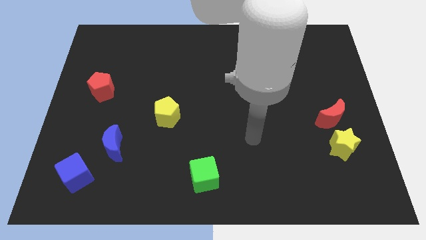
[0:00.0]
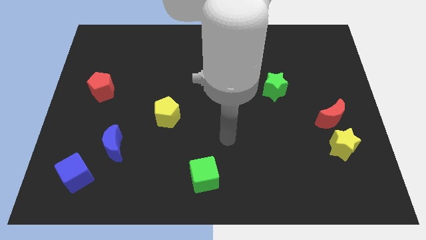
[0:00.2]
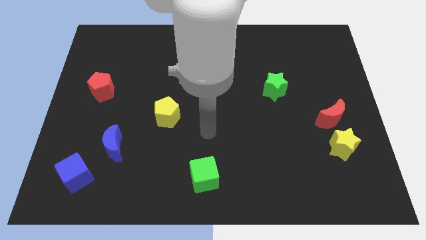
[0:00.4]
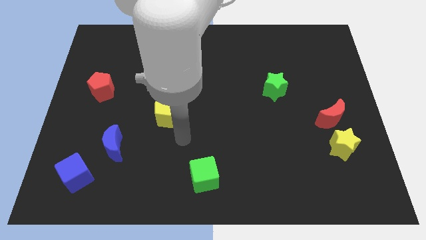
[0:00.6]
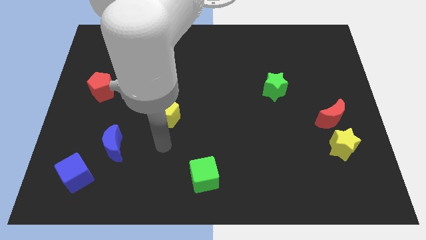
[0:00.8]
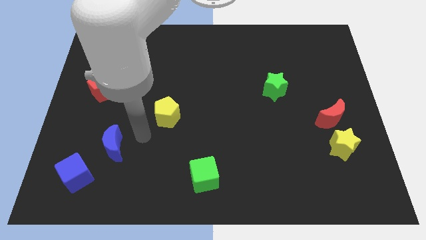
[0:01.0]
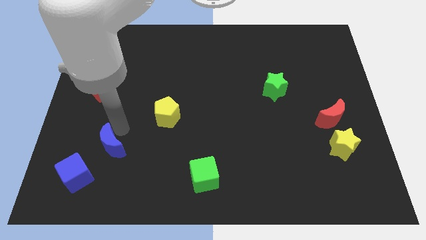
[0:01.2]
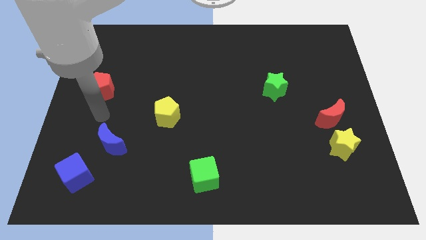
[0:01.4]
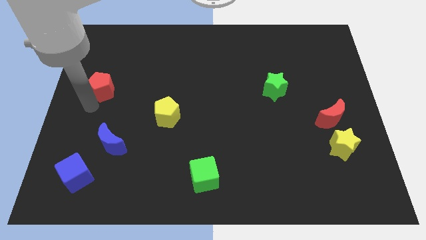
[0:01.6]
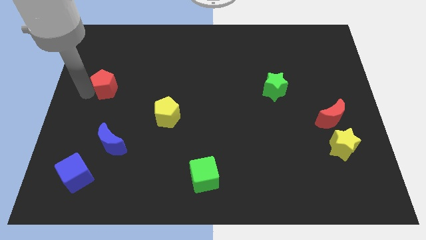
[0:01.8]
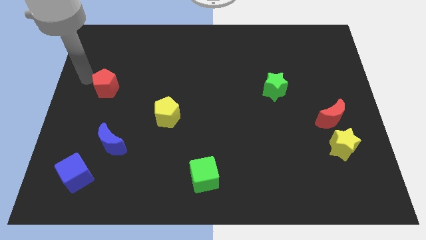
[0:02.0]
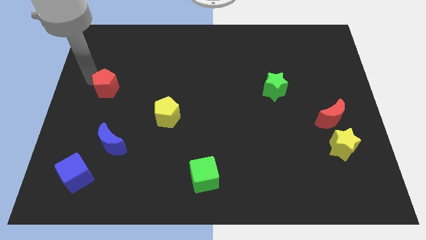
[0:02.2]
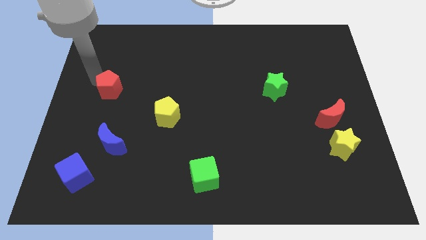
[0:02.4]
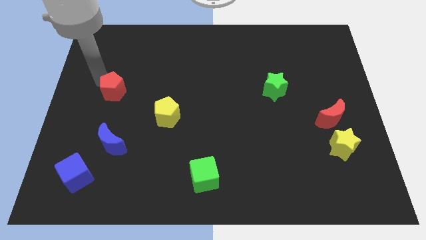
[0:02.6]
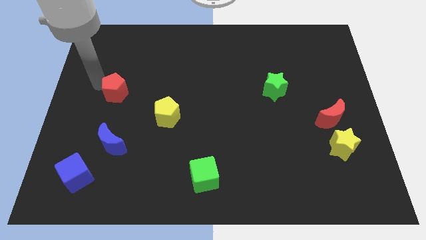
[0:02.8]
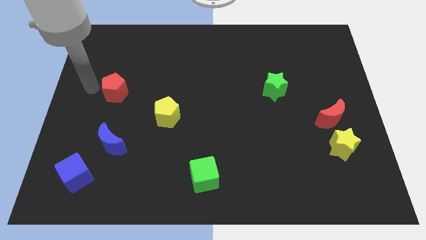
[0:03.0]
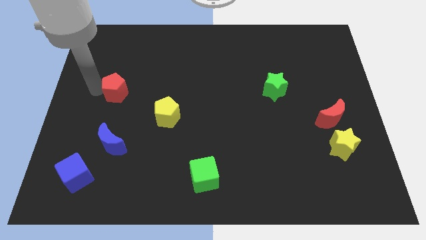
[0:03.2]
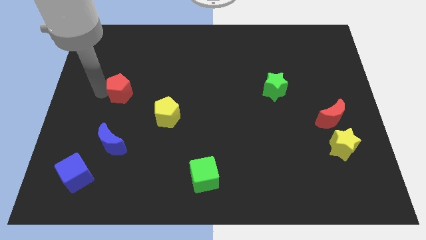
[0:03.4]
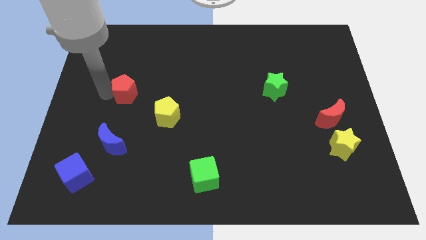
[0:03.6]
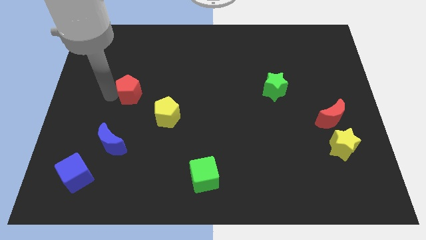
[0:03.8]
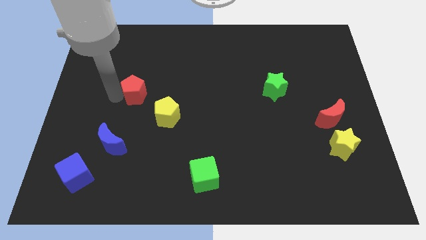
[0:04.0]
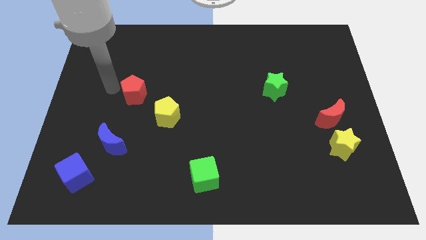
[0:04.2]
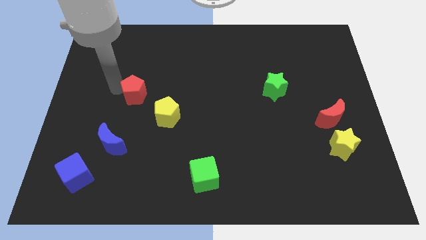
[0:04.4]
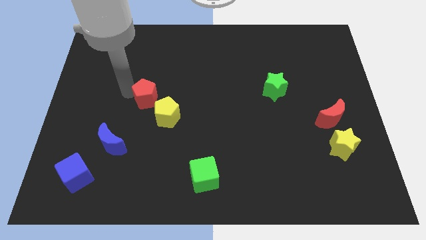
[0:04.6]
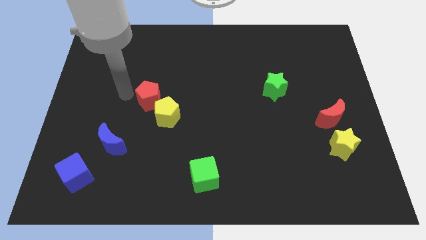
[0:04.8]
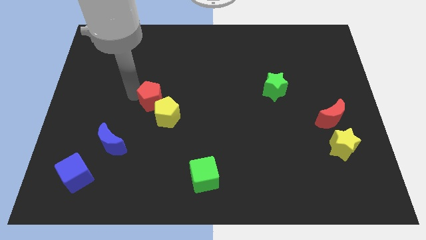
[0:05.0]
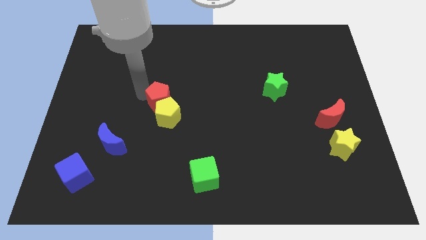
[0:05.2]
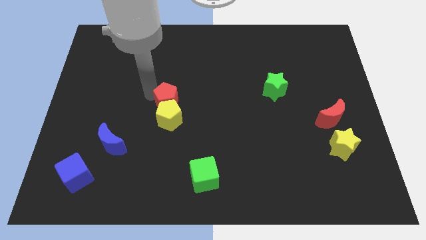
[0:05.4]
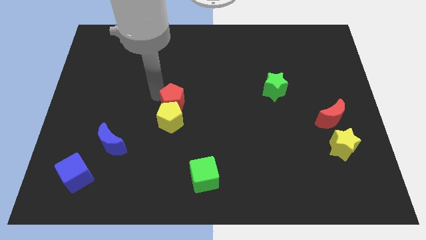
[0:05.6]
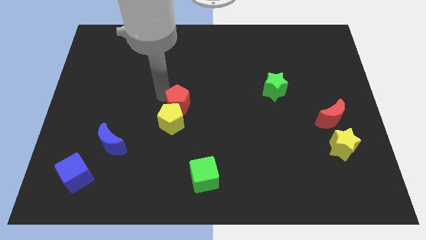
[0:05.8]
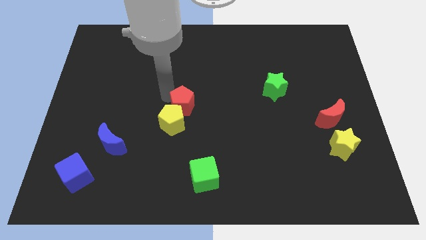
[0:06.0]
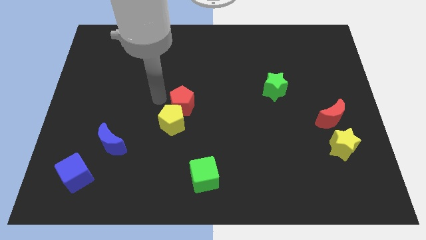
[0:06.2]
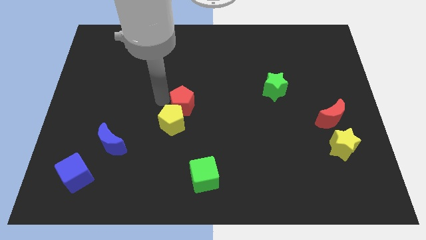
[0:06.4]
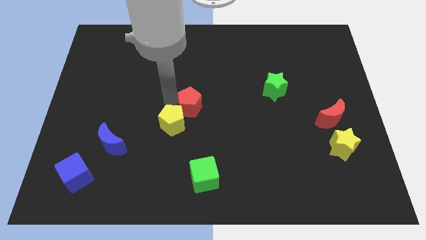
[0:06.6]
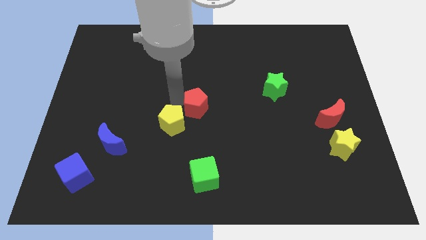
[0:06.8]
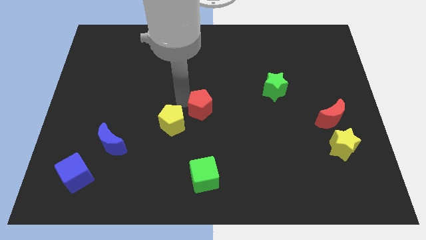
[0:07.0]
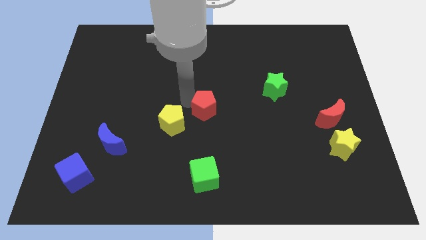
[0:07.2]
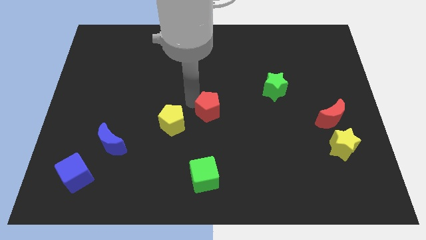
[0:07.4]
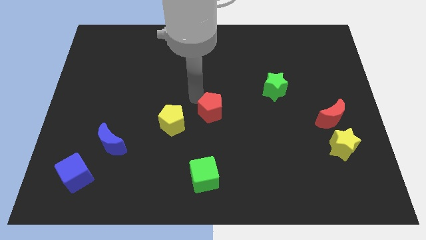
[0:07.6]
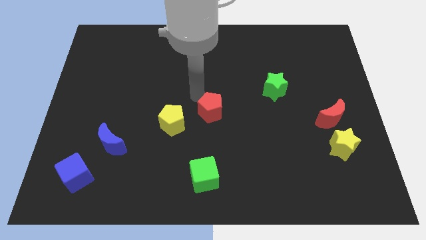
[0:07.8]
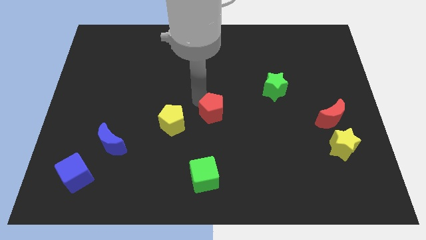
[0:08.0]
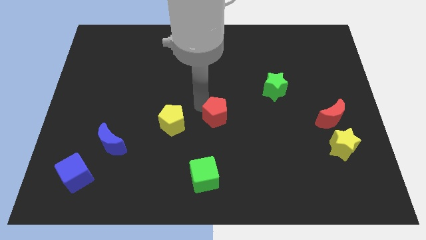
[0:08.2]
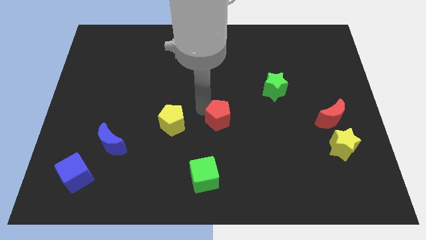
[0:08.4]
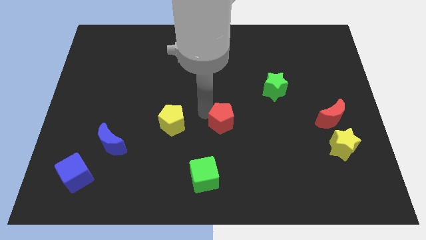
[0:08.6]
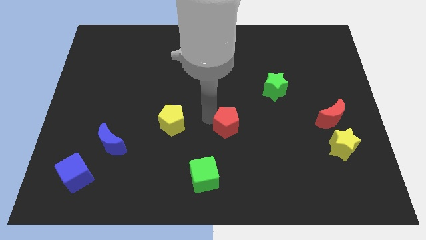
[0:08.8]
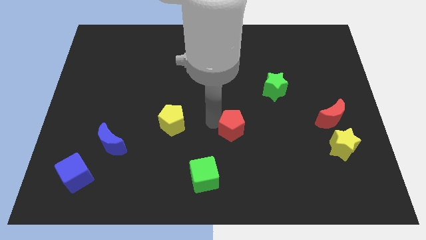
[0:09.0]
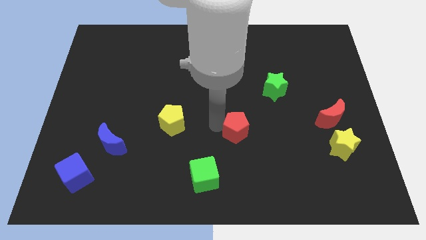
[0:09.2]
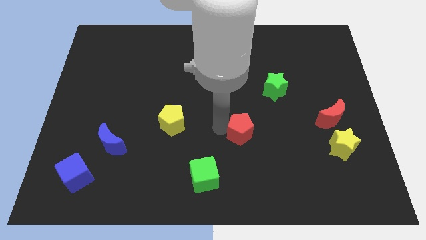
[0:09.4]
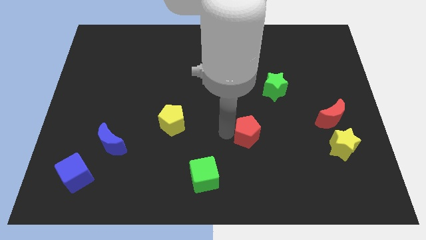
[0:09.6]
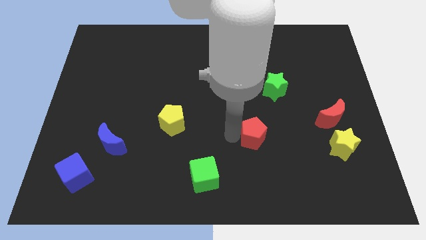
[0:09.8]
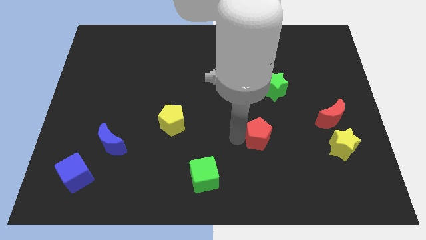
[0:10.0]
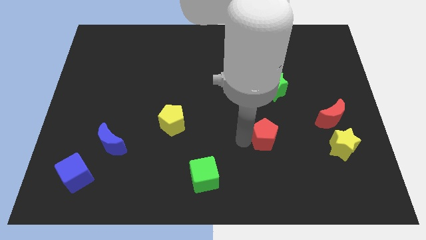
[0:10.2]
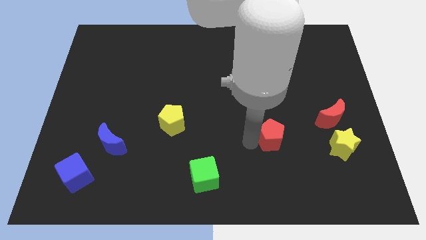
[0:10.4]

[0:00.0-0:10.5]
move the red pentagon just left of the yellow star

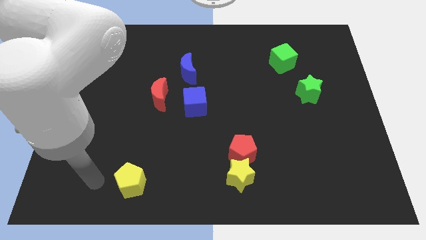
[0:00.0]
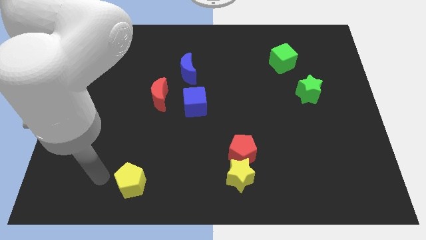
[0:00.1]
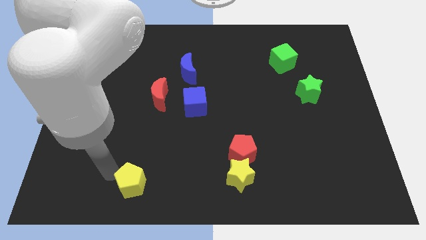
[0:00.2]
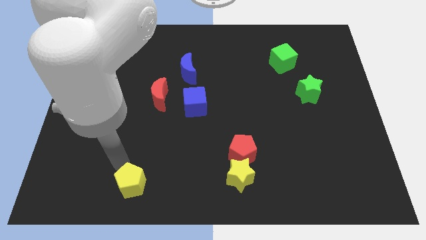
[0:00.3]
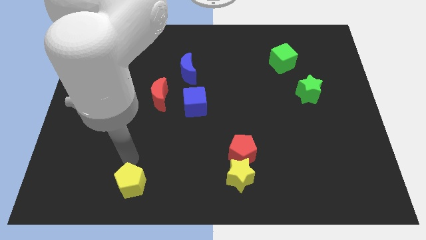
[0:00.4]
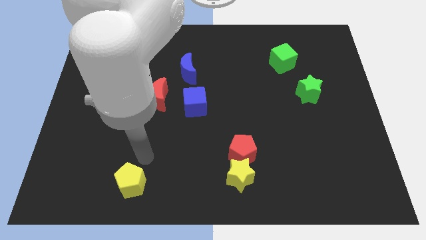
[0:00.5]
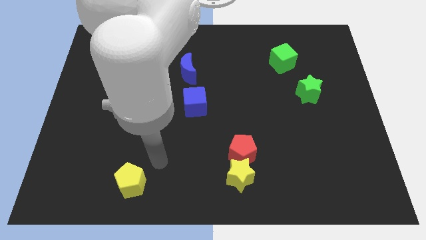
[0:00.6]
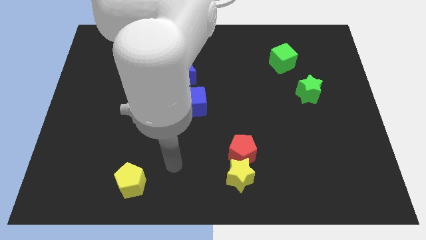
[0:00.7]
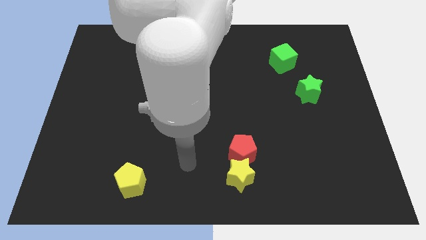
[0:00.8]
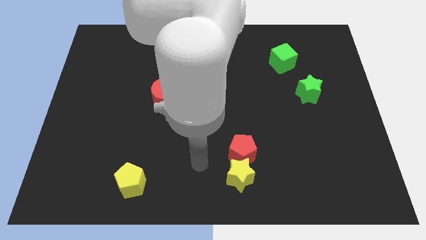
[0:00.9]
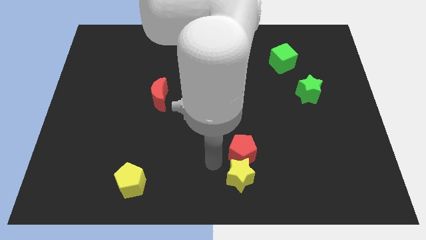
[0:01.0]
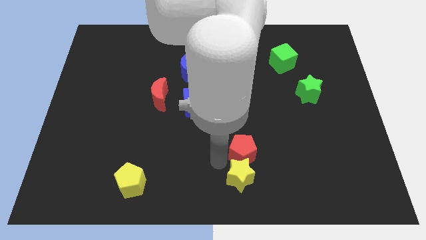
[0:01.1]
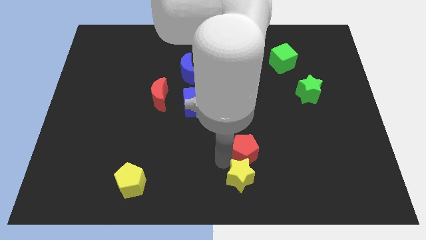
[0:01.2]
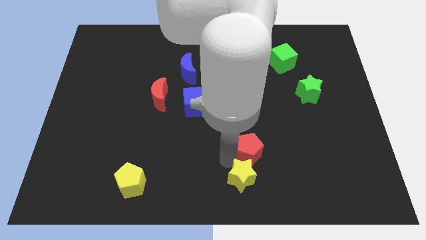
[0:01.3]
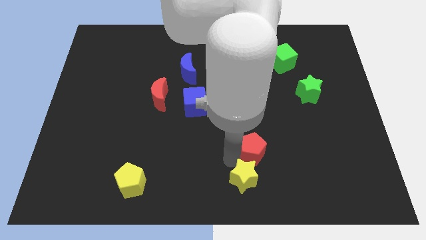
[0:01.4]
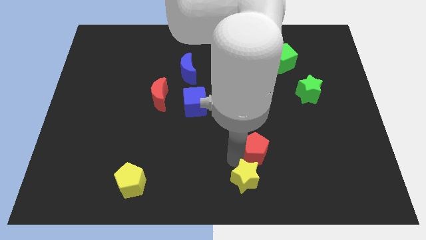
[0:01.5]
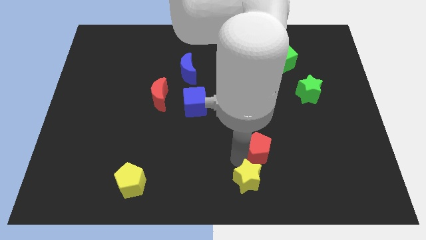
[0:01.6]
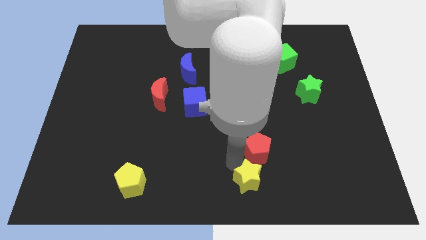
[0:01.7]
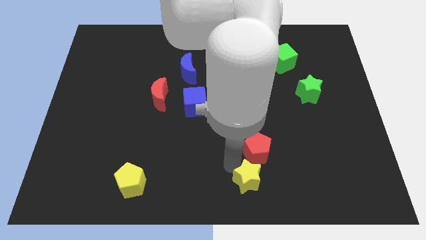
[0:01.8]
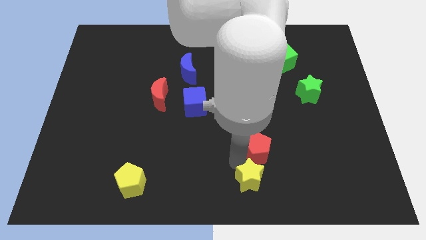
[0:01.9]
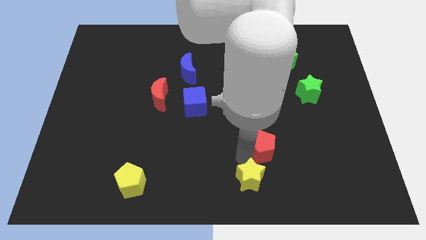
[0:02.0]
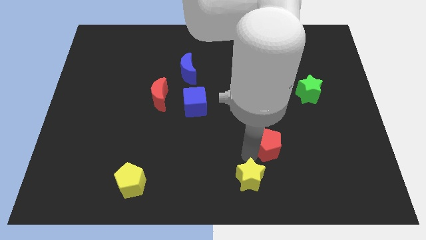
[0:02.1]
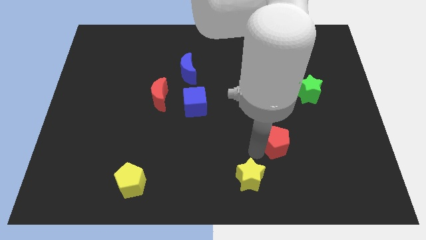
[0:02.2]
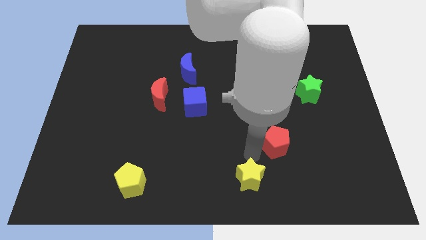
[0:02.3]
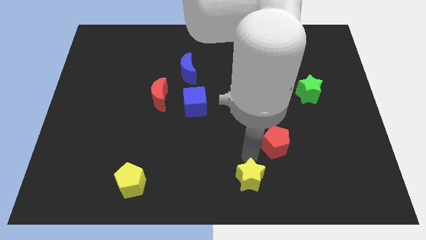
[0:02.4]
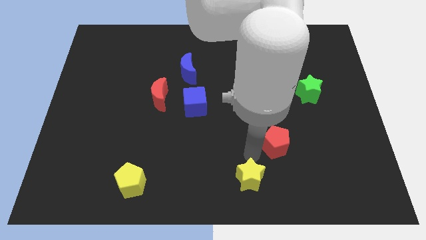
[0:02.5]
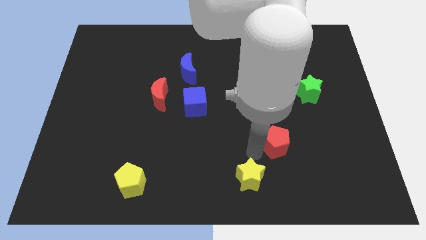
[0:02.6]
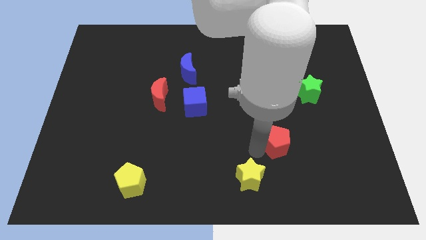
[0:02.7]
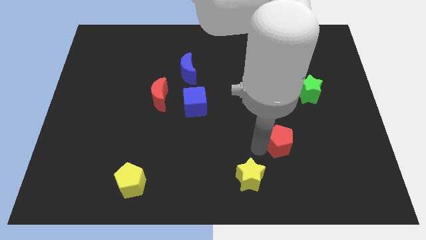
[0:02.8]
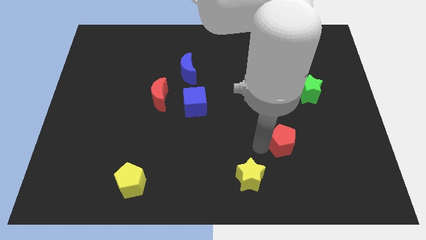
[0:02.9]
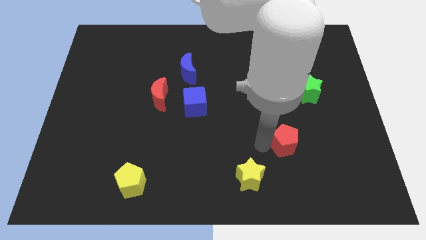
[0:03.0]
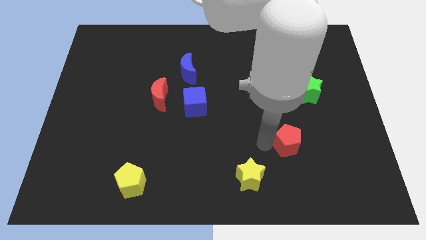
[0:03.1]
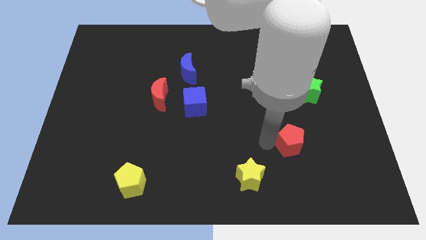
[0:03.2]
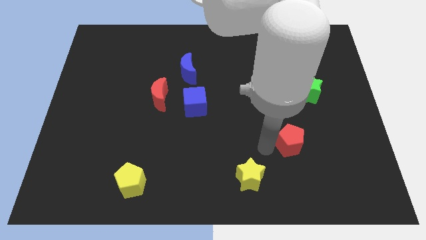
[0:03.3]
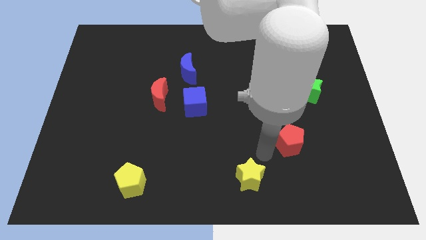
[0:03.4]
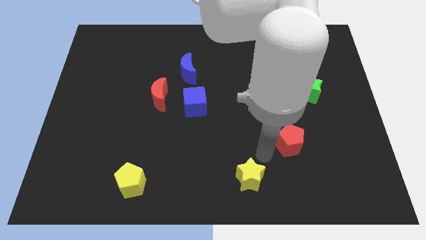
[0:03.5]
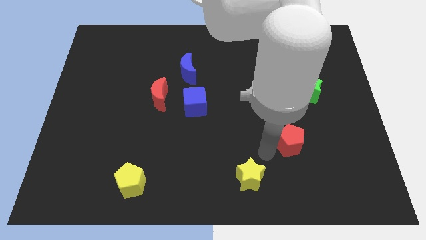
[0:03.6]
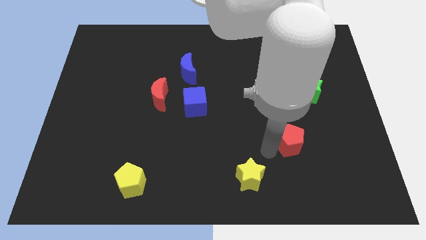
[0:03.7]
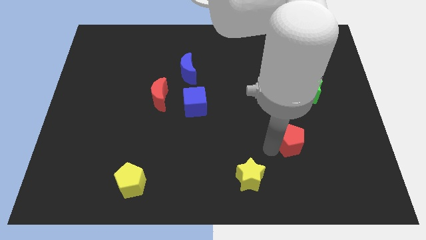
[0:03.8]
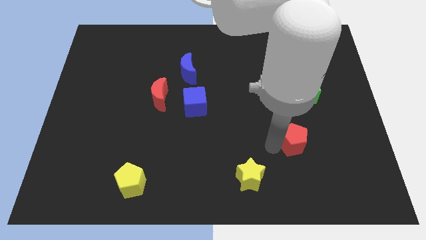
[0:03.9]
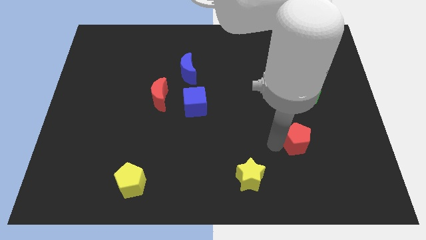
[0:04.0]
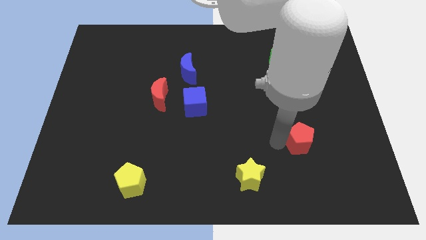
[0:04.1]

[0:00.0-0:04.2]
slide the red pentagon to the bottom of the green star
